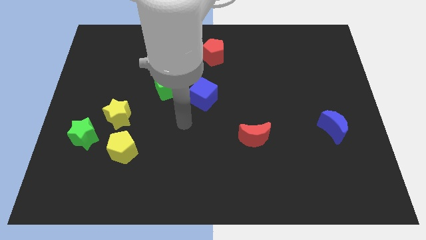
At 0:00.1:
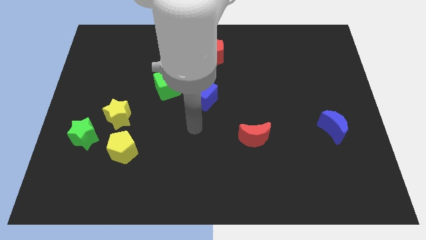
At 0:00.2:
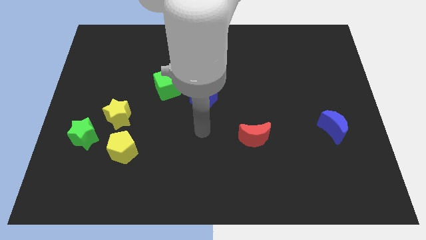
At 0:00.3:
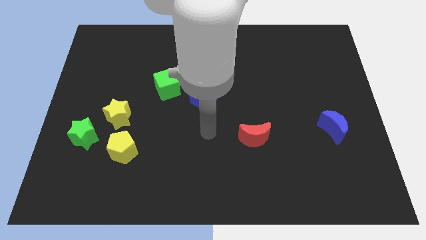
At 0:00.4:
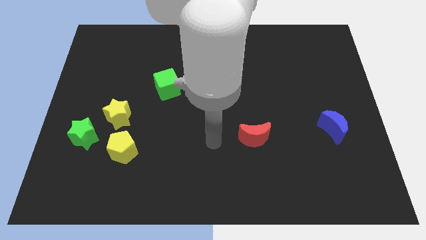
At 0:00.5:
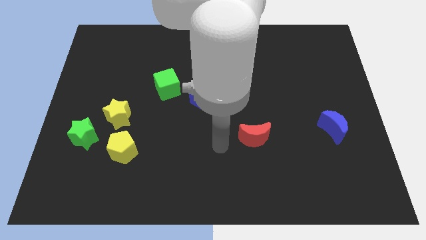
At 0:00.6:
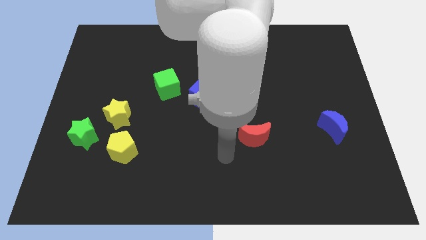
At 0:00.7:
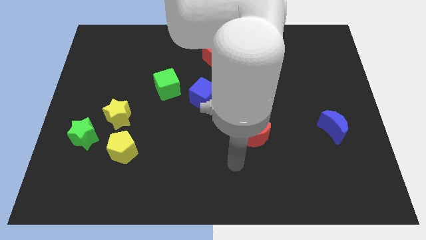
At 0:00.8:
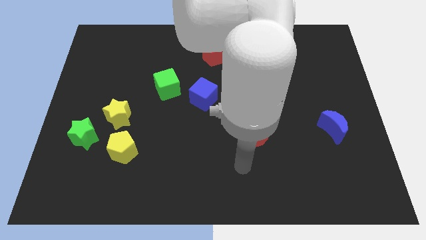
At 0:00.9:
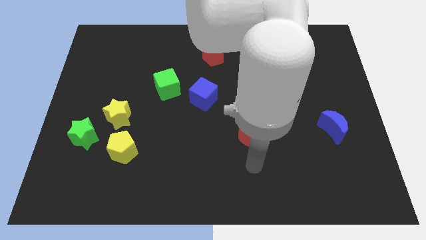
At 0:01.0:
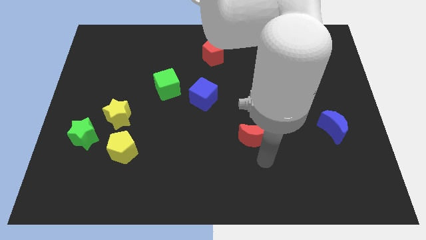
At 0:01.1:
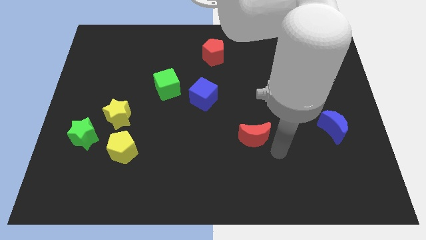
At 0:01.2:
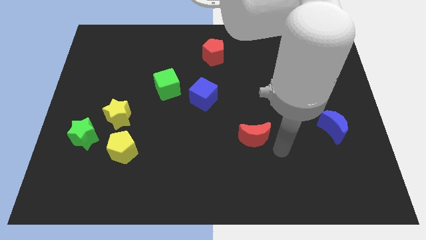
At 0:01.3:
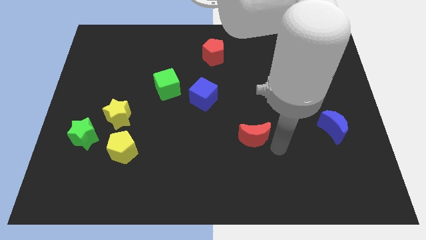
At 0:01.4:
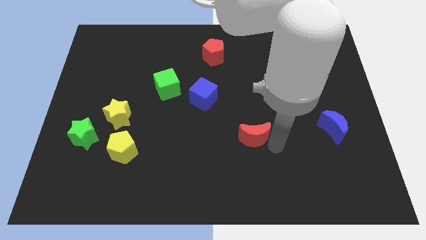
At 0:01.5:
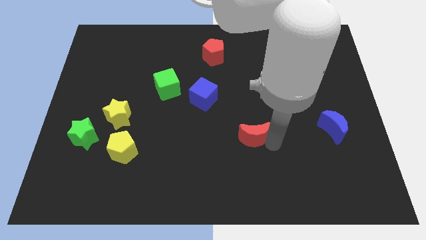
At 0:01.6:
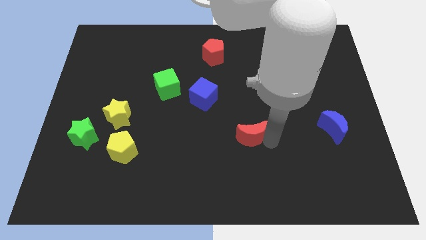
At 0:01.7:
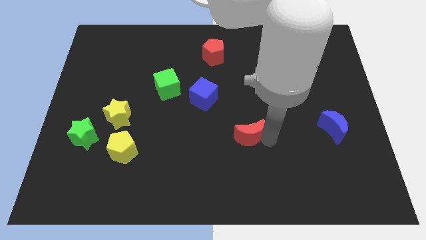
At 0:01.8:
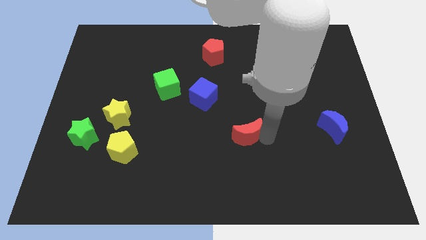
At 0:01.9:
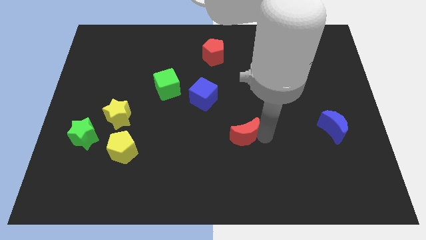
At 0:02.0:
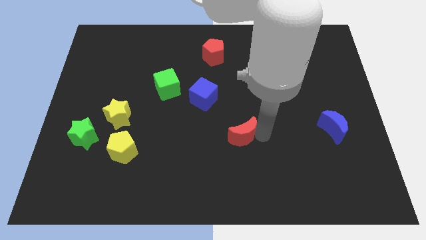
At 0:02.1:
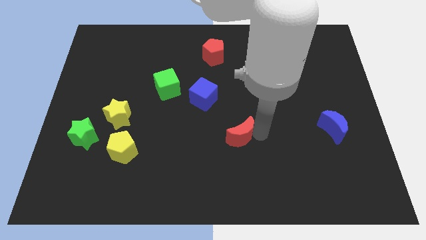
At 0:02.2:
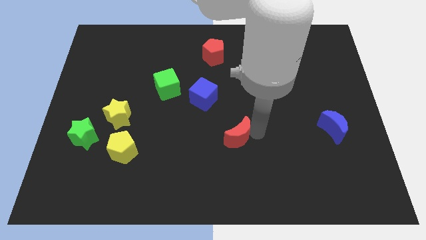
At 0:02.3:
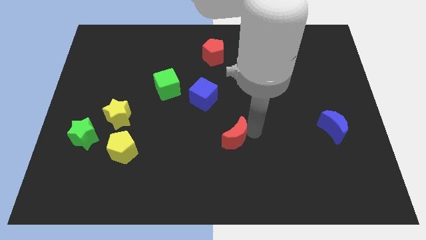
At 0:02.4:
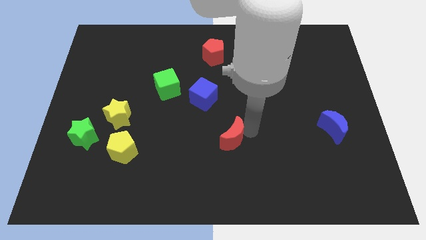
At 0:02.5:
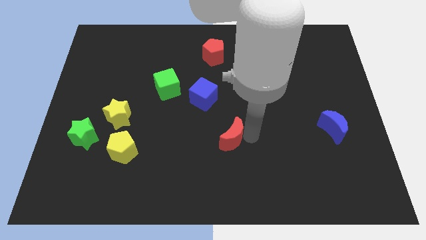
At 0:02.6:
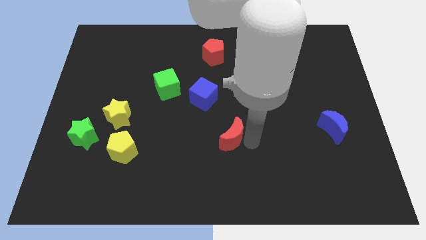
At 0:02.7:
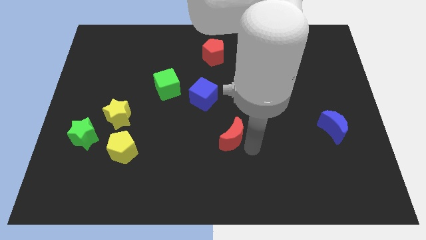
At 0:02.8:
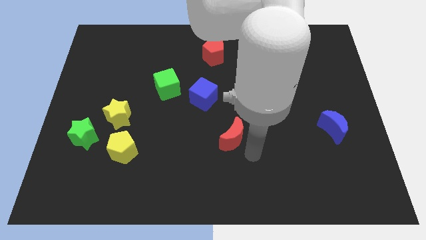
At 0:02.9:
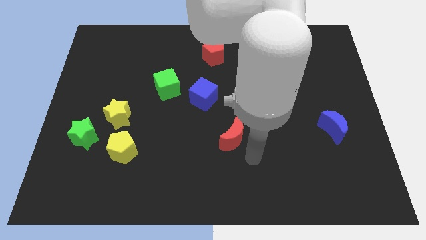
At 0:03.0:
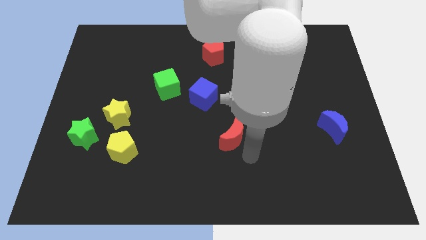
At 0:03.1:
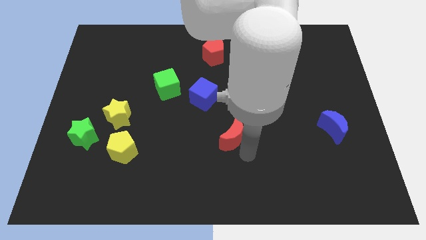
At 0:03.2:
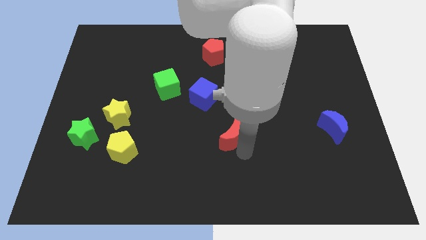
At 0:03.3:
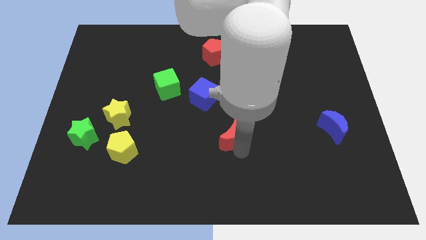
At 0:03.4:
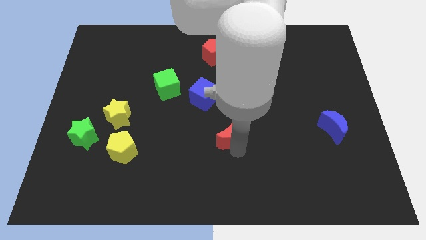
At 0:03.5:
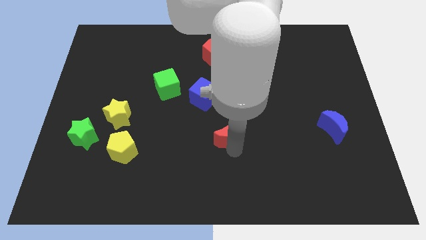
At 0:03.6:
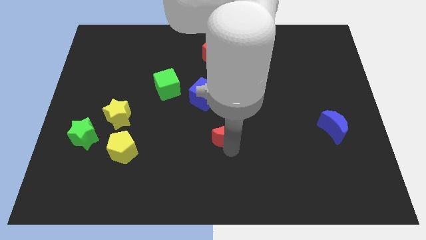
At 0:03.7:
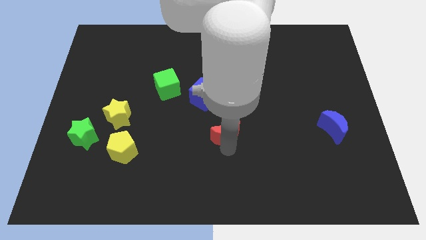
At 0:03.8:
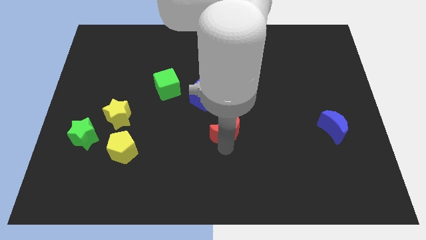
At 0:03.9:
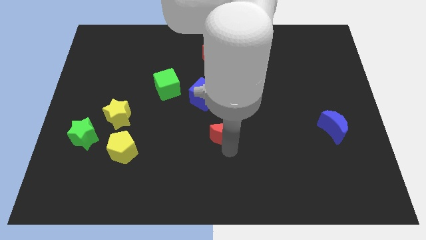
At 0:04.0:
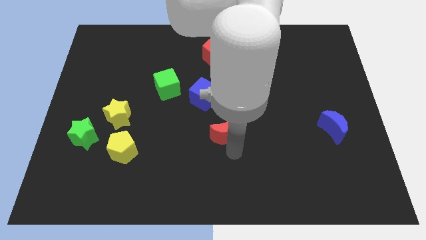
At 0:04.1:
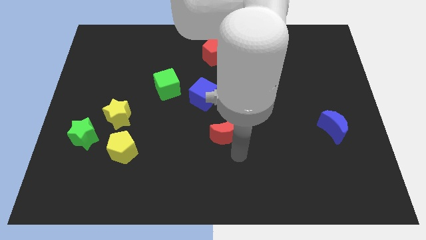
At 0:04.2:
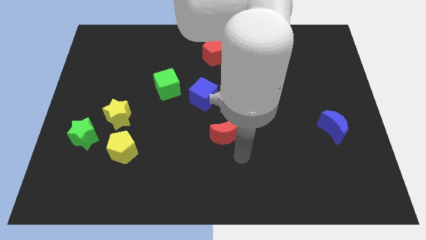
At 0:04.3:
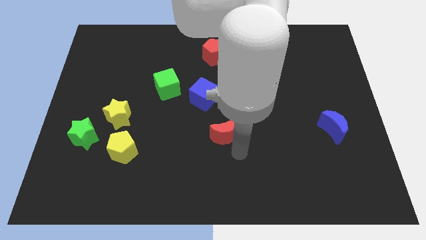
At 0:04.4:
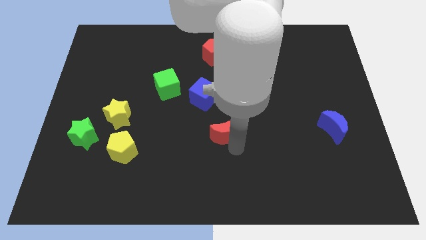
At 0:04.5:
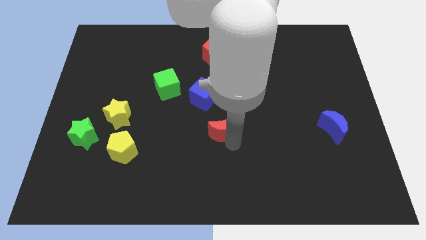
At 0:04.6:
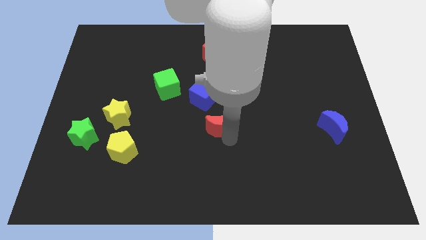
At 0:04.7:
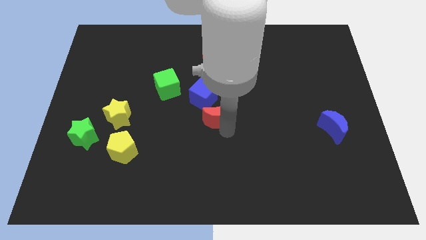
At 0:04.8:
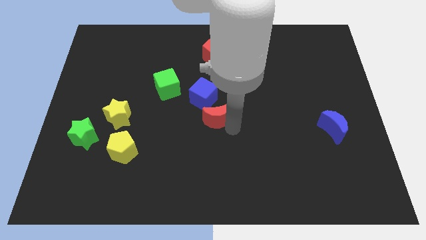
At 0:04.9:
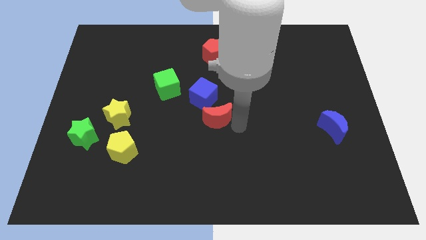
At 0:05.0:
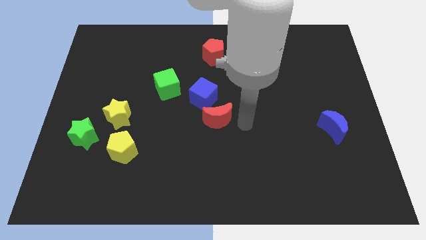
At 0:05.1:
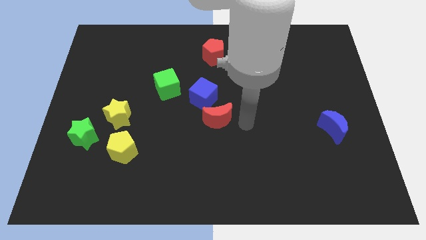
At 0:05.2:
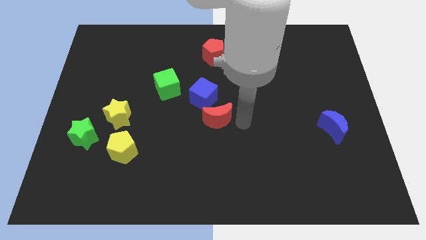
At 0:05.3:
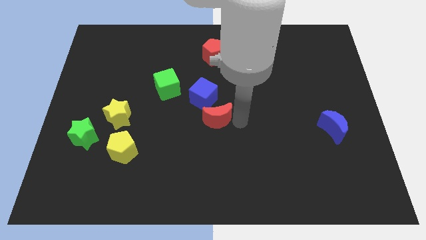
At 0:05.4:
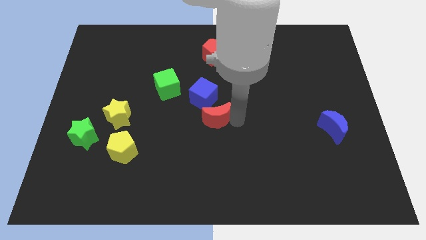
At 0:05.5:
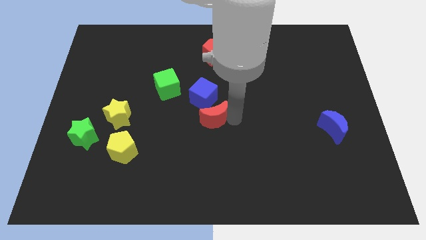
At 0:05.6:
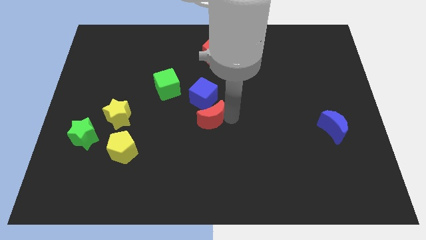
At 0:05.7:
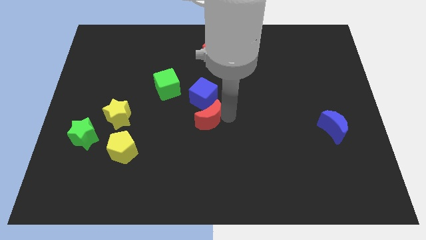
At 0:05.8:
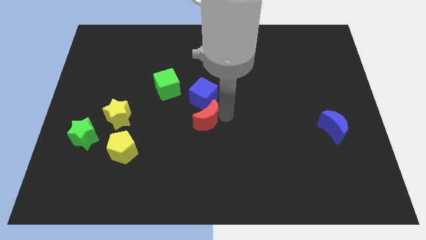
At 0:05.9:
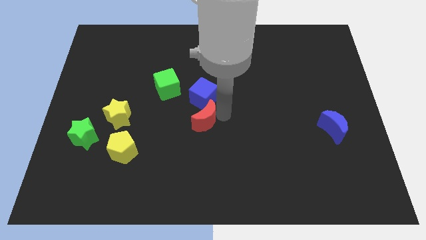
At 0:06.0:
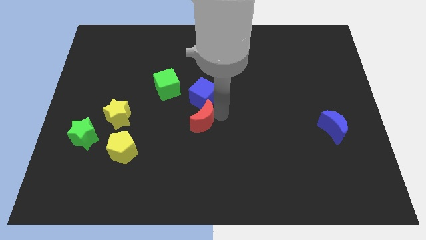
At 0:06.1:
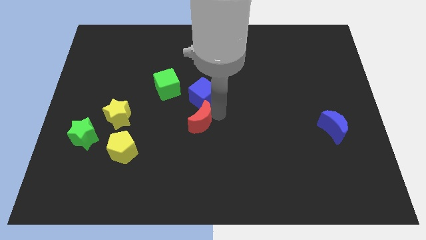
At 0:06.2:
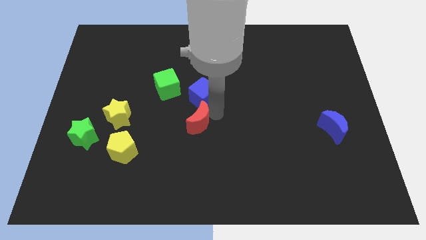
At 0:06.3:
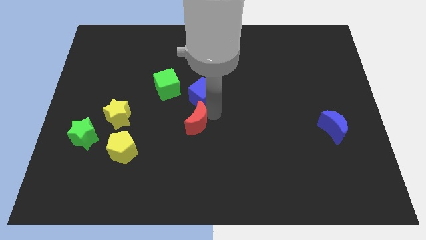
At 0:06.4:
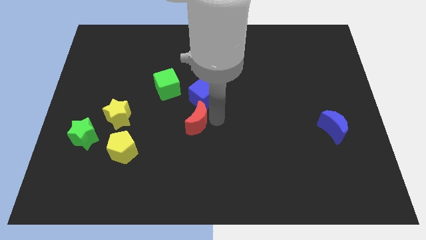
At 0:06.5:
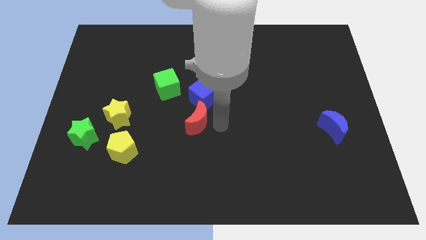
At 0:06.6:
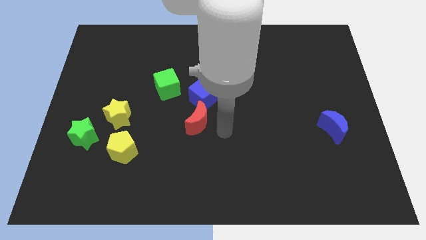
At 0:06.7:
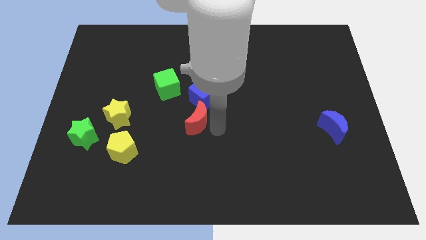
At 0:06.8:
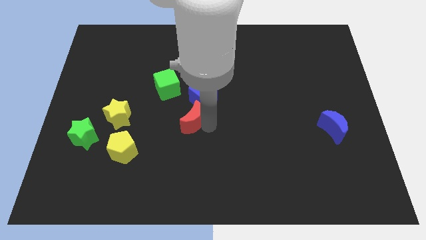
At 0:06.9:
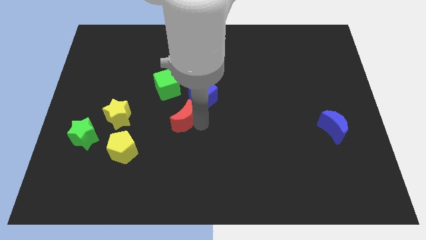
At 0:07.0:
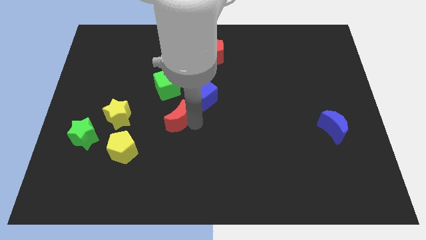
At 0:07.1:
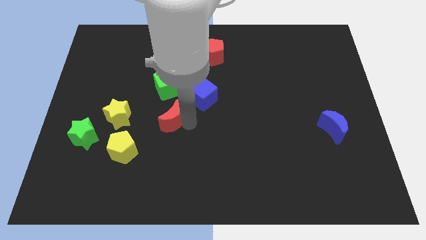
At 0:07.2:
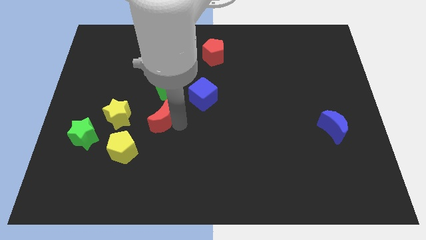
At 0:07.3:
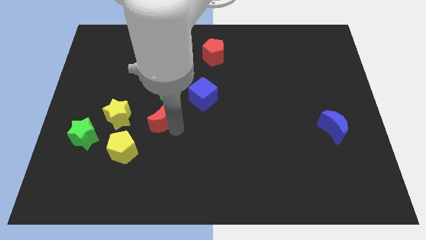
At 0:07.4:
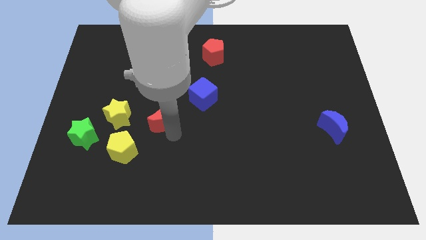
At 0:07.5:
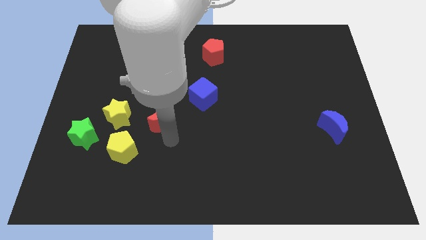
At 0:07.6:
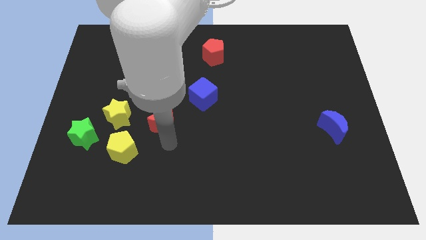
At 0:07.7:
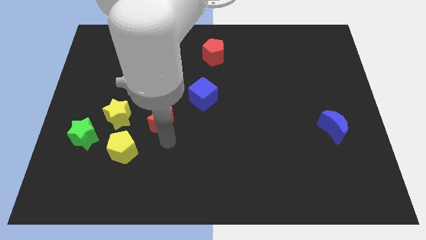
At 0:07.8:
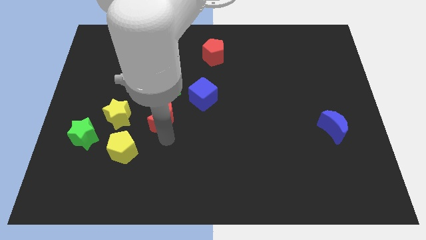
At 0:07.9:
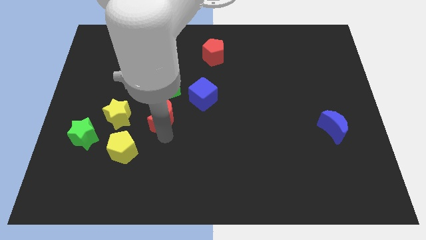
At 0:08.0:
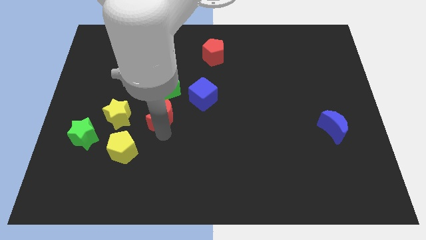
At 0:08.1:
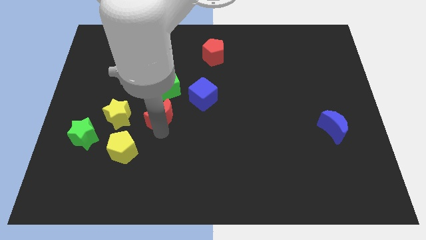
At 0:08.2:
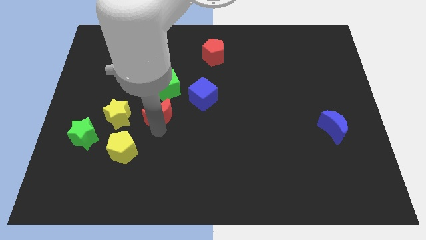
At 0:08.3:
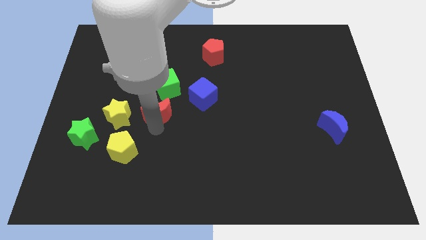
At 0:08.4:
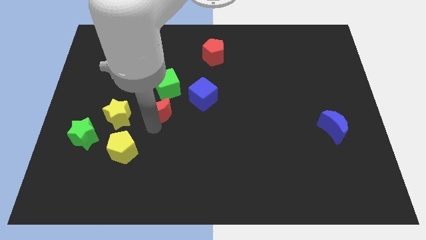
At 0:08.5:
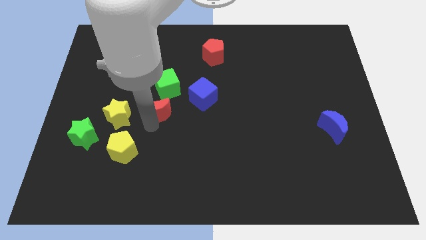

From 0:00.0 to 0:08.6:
put the red moon to the left side of the blue cube
